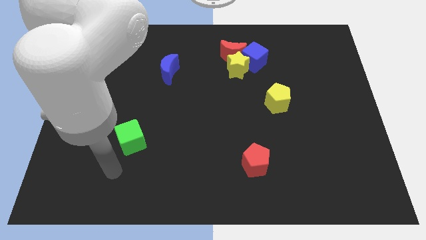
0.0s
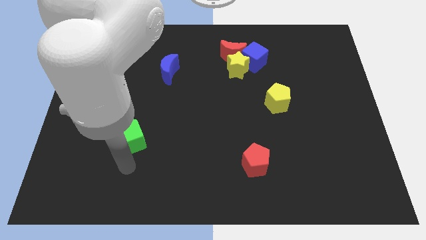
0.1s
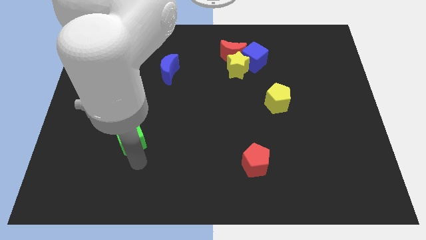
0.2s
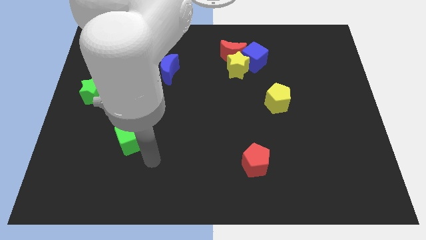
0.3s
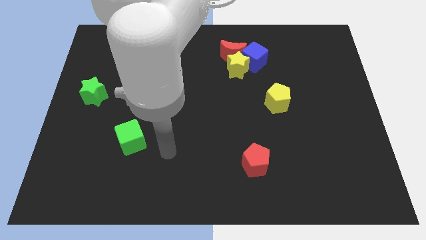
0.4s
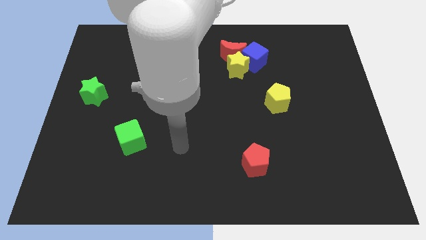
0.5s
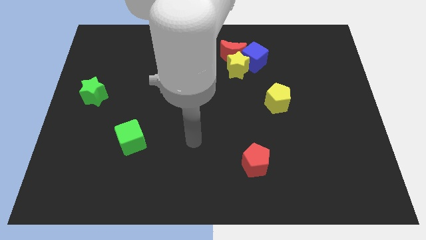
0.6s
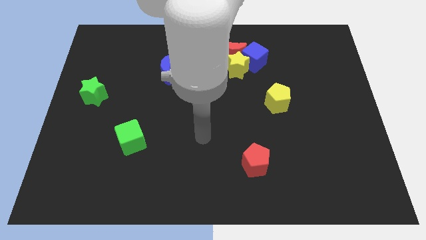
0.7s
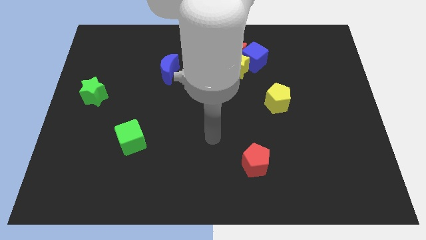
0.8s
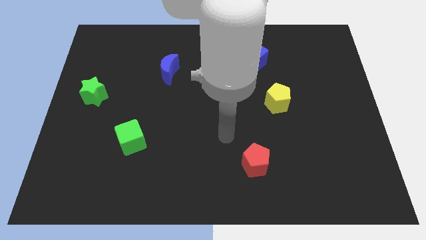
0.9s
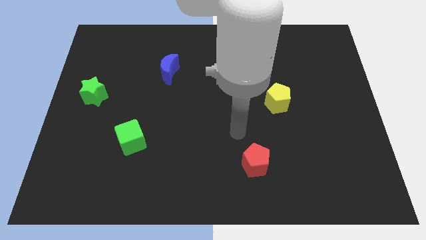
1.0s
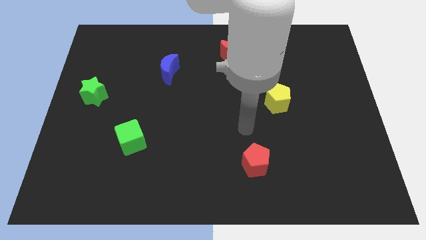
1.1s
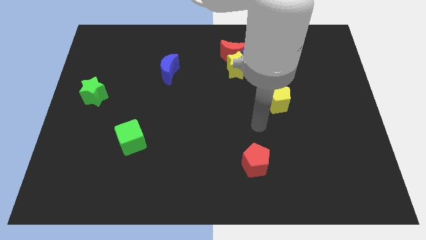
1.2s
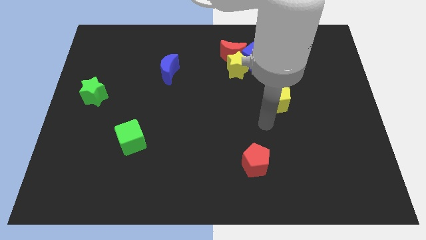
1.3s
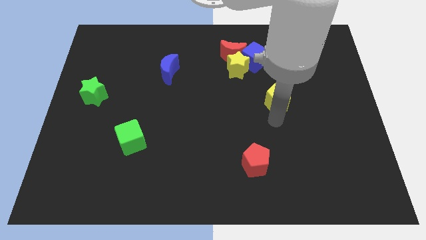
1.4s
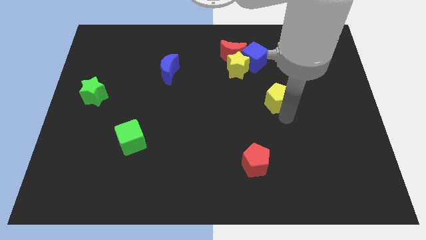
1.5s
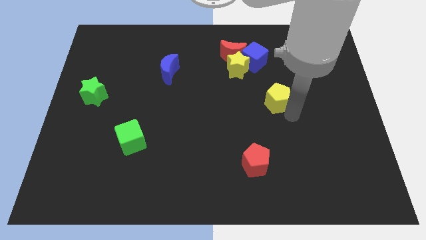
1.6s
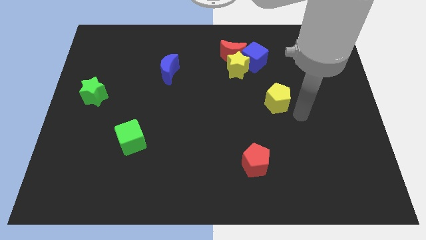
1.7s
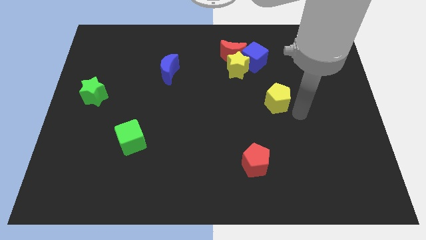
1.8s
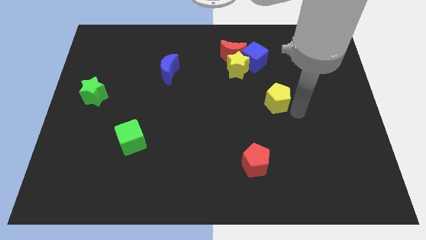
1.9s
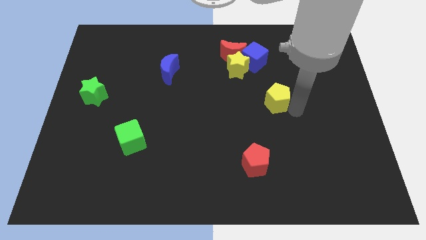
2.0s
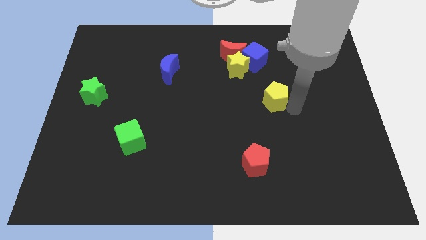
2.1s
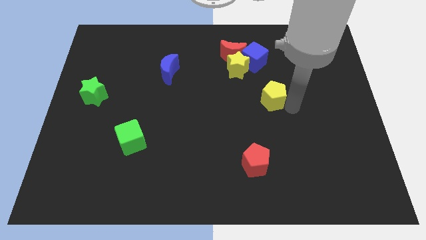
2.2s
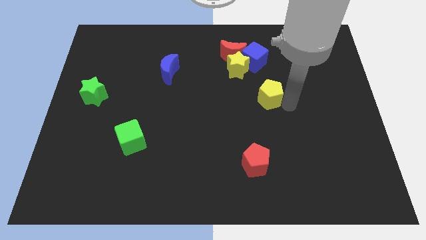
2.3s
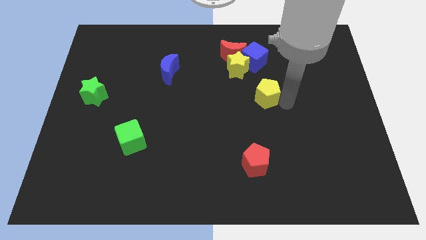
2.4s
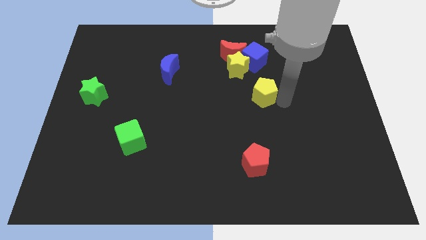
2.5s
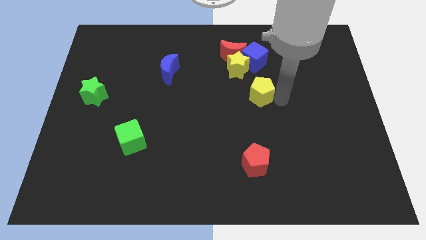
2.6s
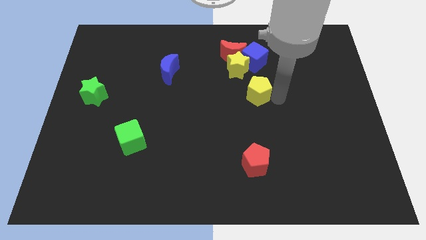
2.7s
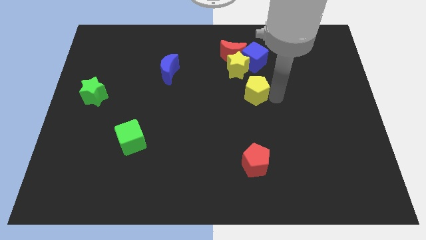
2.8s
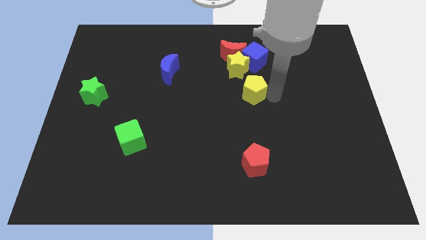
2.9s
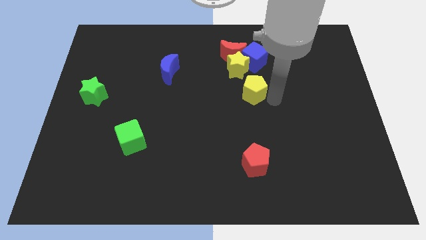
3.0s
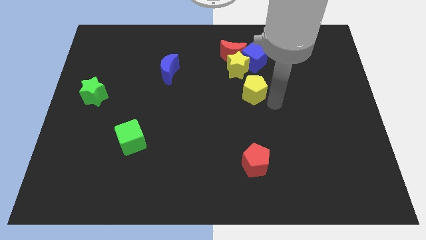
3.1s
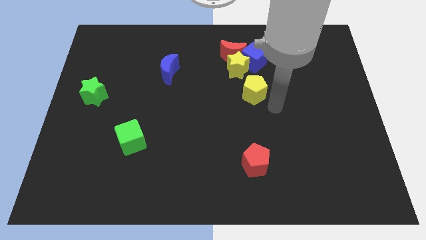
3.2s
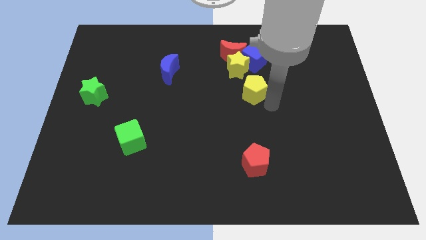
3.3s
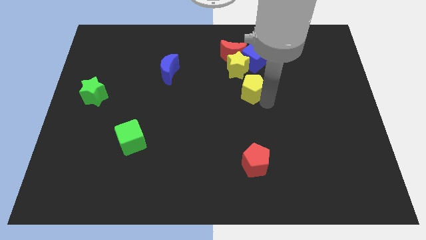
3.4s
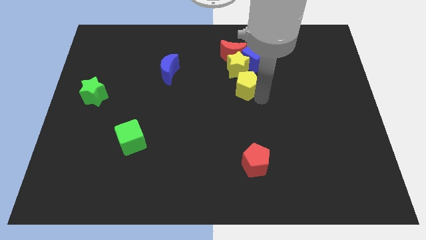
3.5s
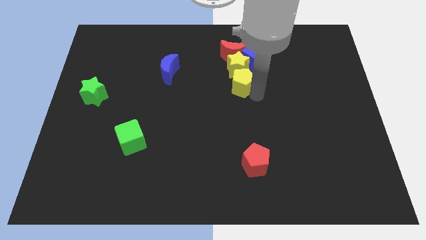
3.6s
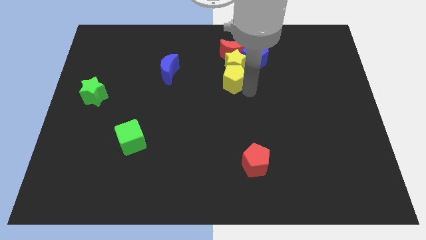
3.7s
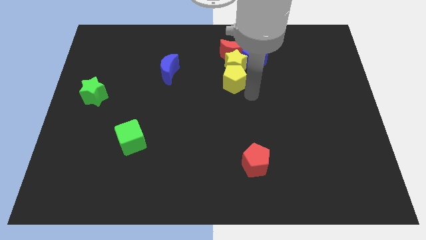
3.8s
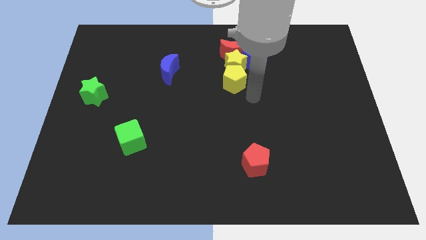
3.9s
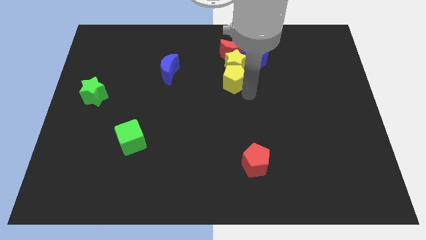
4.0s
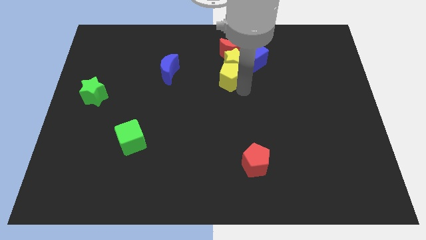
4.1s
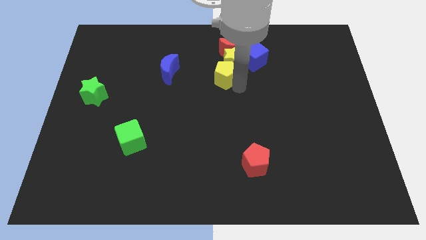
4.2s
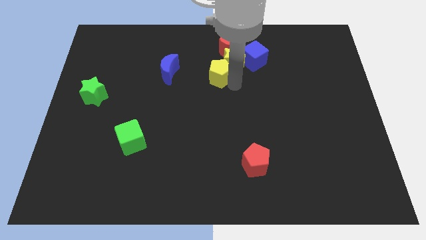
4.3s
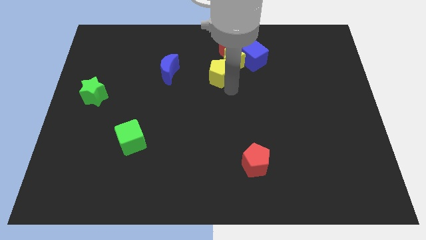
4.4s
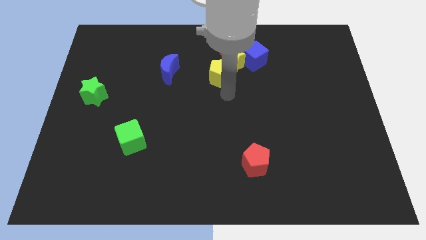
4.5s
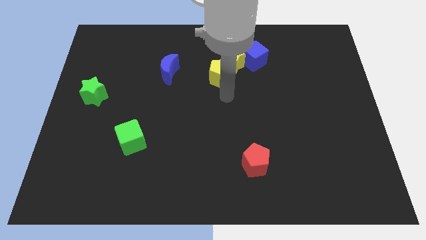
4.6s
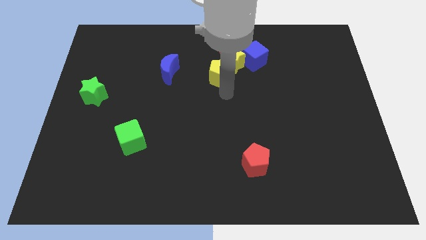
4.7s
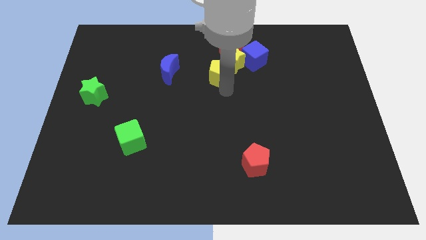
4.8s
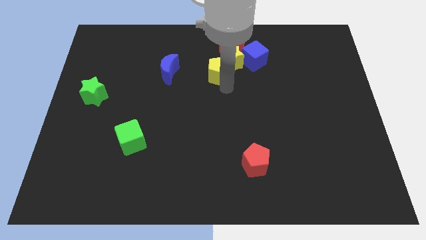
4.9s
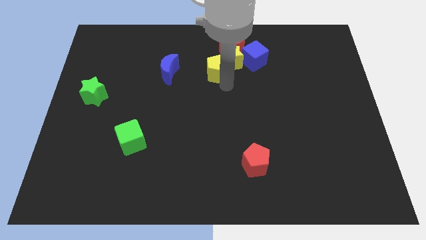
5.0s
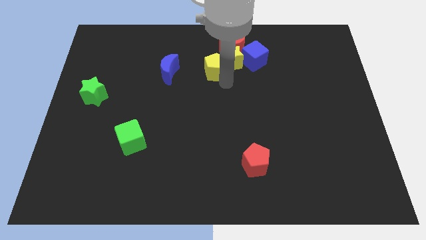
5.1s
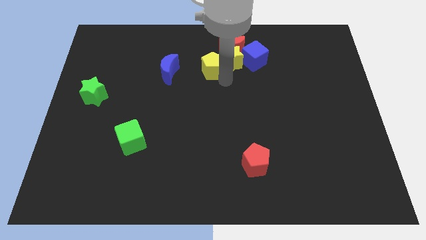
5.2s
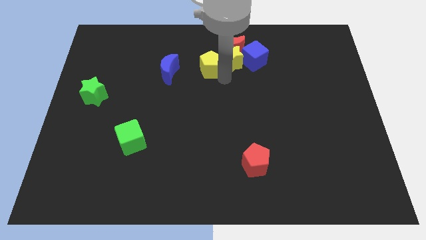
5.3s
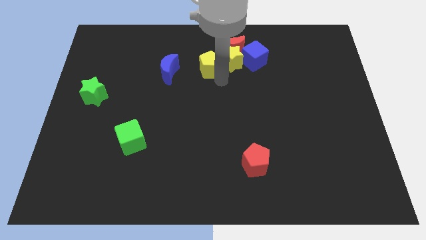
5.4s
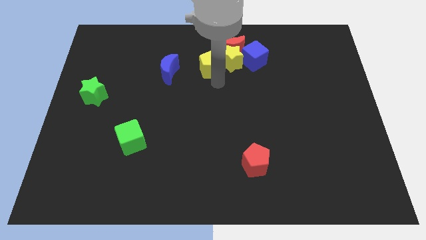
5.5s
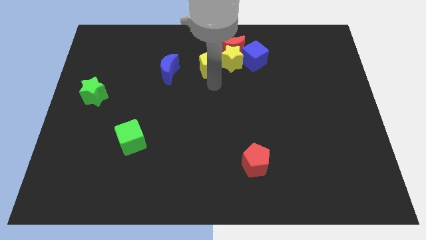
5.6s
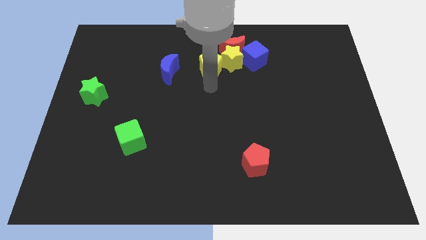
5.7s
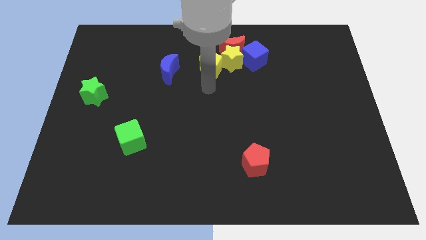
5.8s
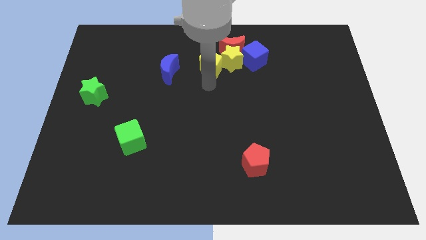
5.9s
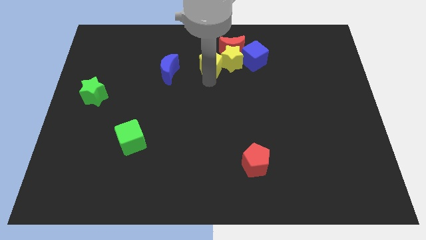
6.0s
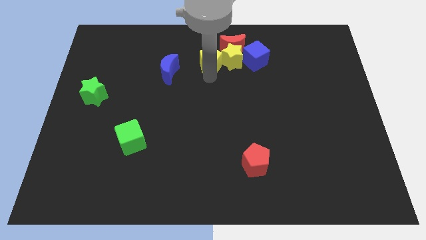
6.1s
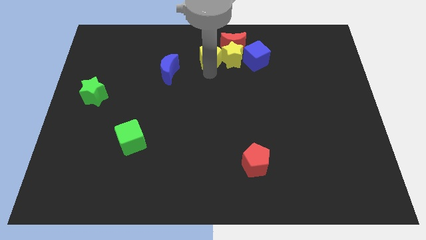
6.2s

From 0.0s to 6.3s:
move the yellow pentagon to the top right side of the blue moon

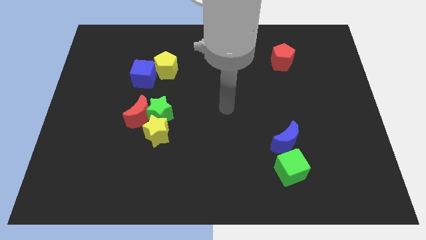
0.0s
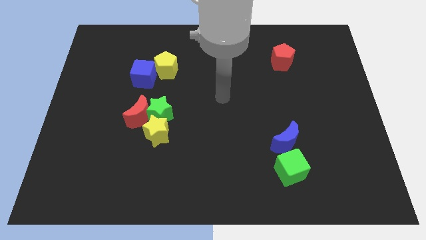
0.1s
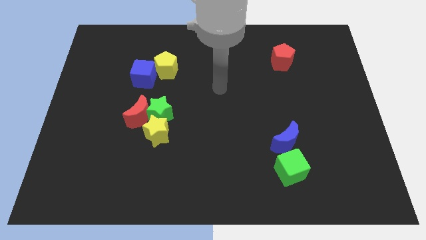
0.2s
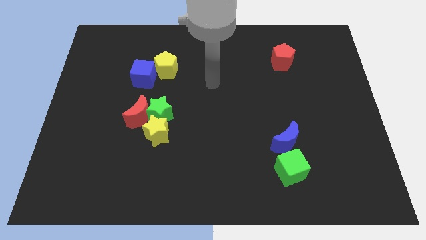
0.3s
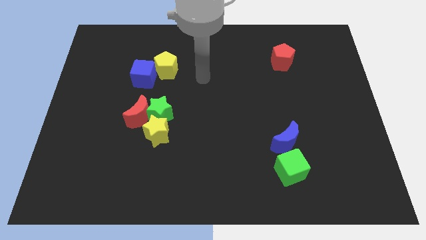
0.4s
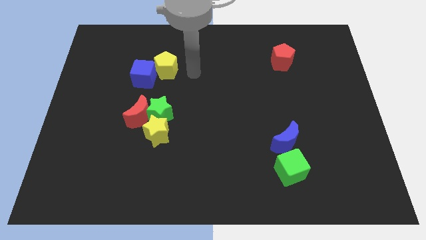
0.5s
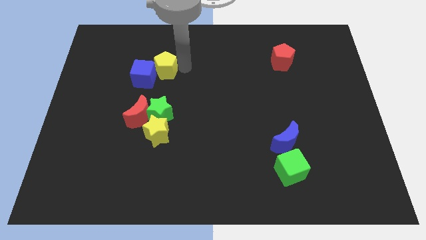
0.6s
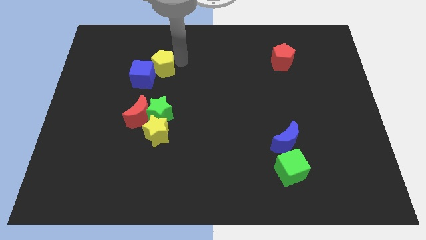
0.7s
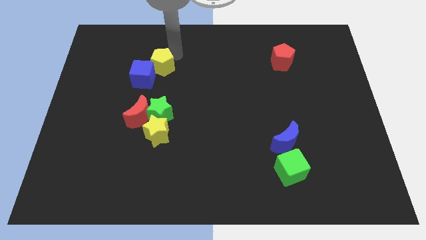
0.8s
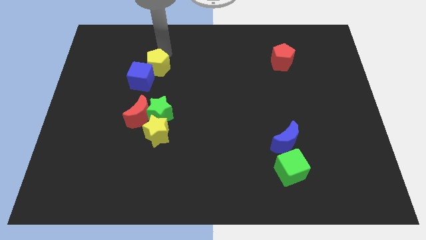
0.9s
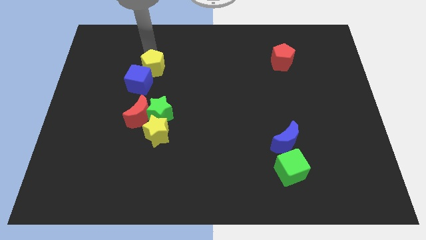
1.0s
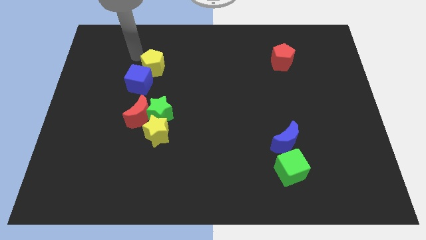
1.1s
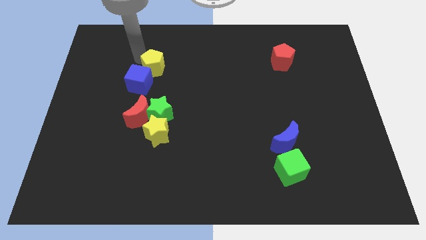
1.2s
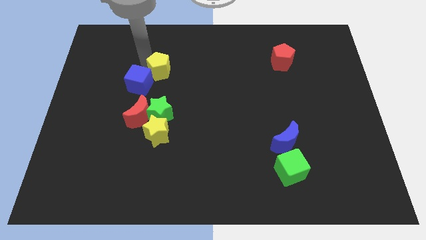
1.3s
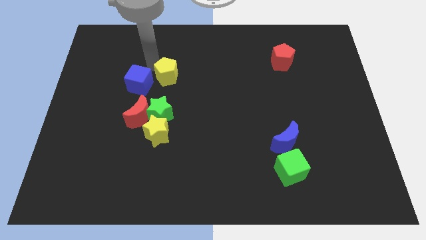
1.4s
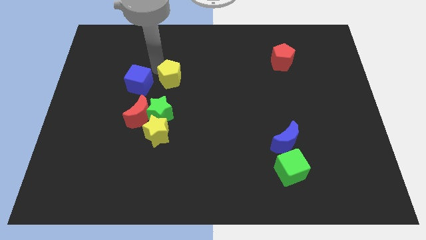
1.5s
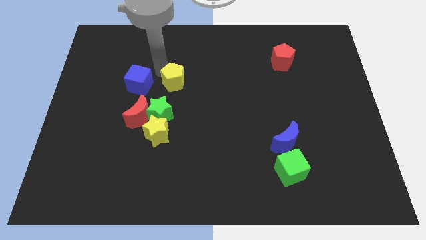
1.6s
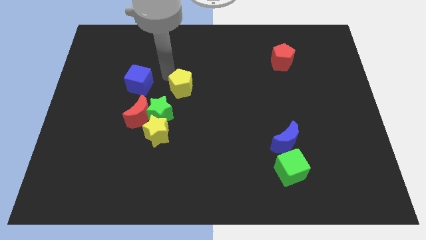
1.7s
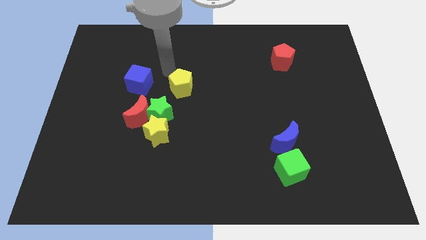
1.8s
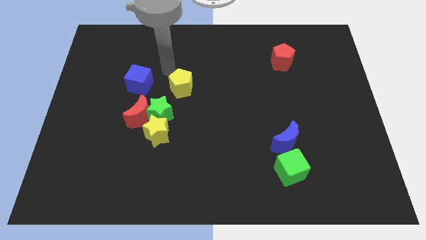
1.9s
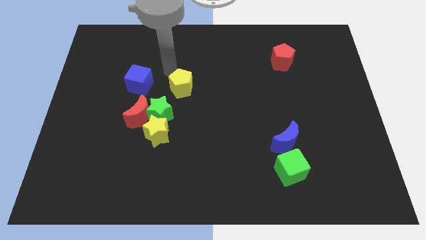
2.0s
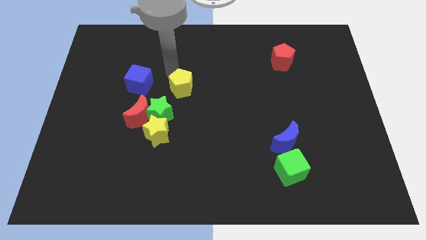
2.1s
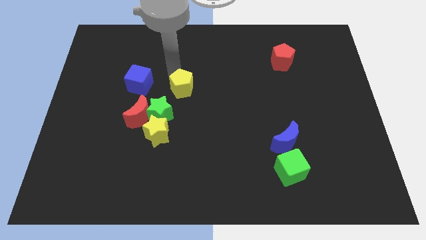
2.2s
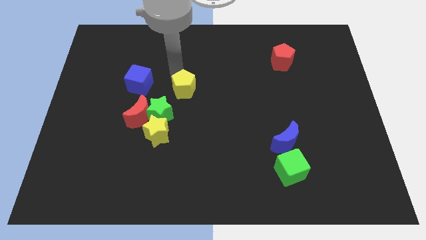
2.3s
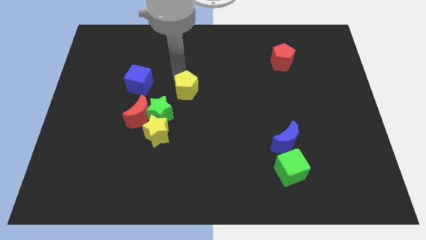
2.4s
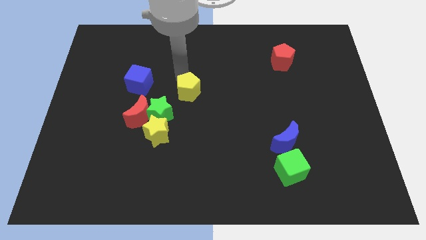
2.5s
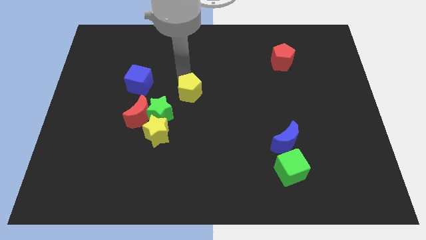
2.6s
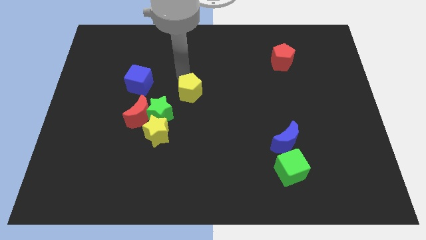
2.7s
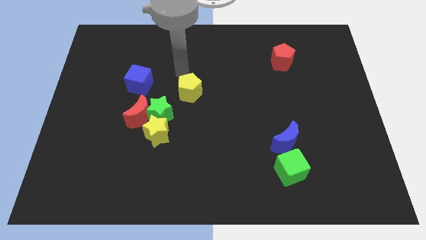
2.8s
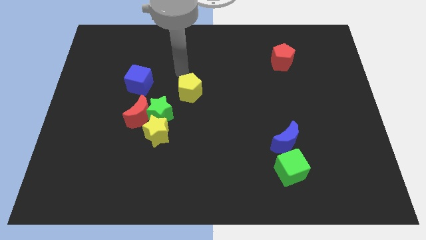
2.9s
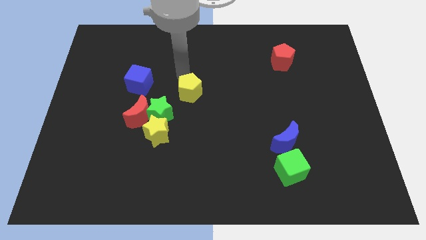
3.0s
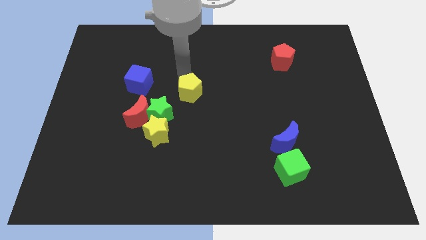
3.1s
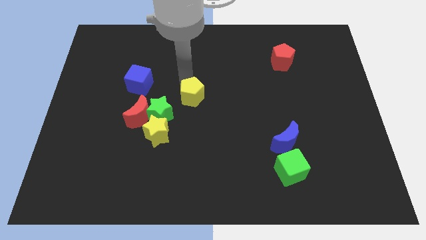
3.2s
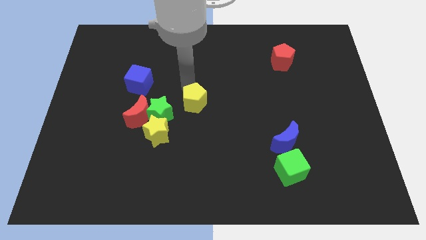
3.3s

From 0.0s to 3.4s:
push the yellow pentagon to the right side of the green star
